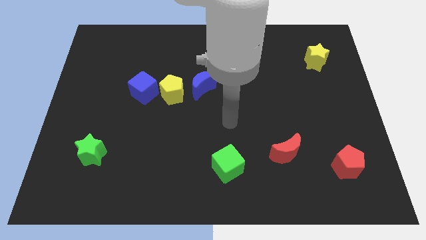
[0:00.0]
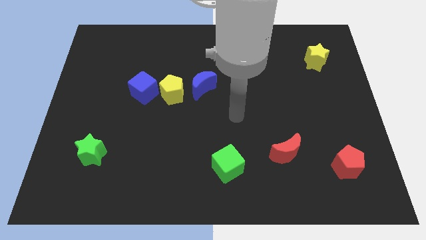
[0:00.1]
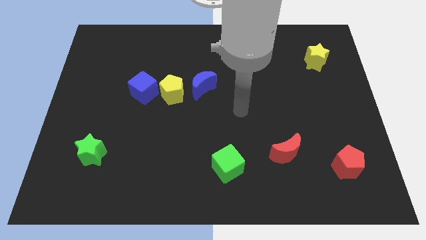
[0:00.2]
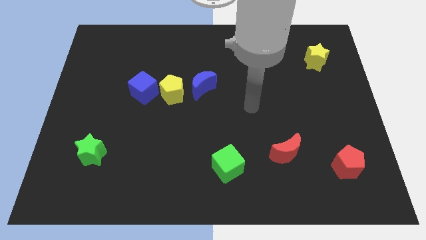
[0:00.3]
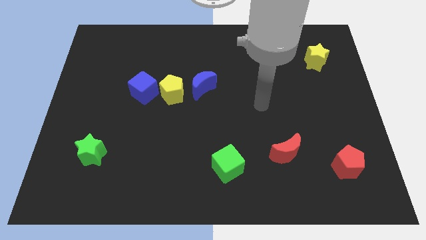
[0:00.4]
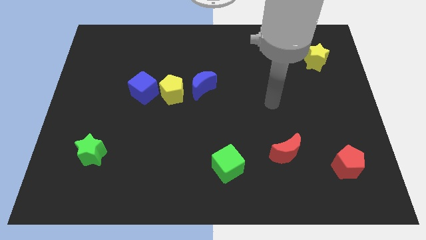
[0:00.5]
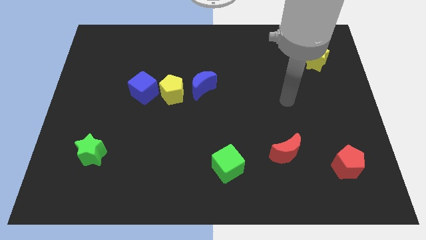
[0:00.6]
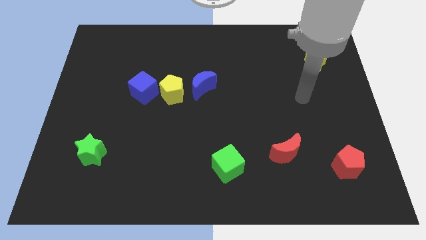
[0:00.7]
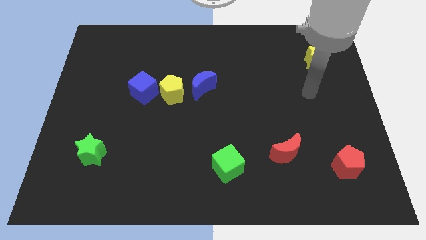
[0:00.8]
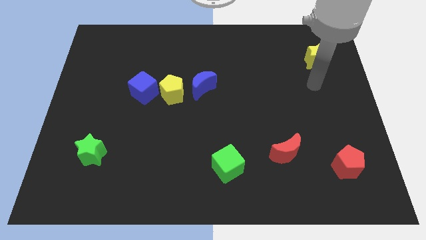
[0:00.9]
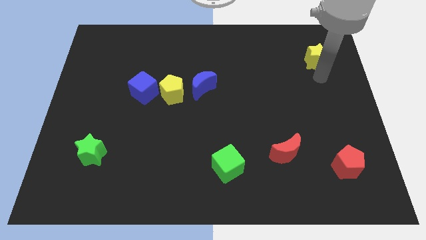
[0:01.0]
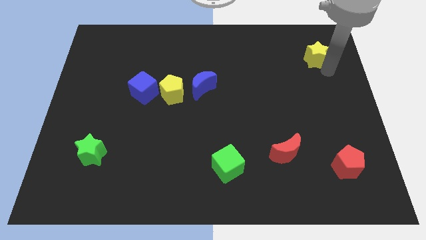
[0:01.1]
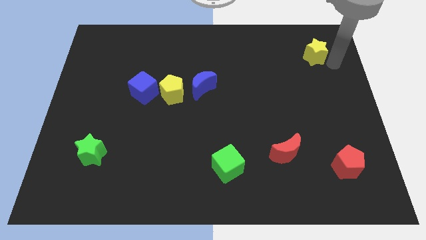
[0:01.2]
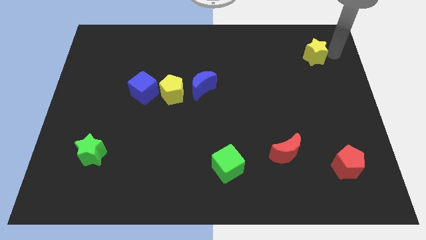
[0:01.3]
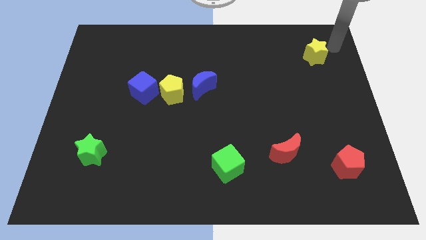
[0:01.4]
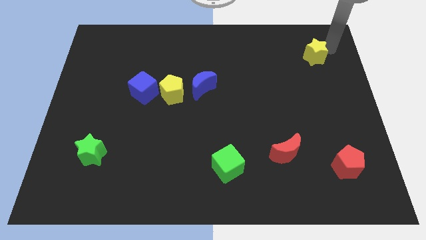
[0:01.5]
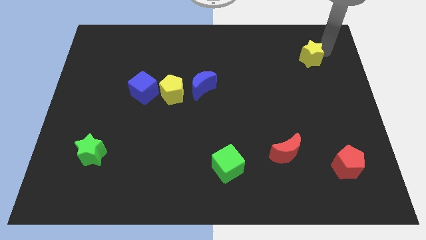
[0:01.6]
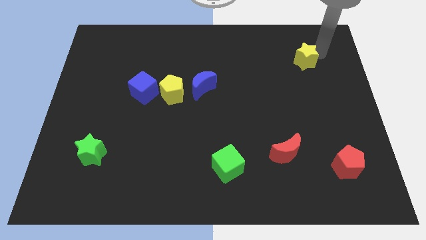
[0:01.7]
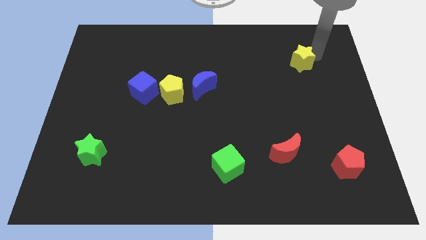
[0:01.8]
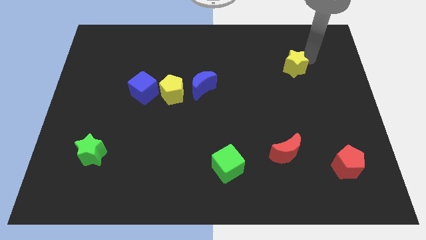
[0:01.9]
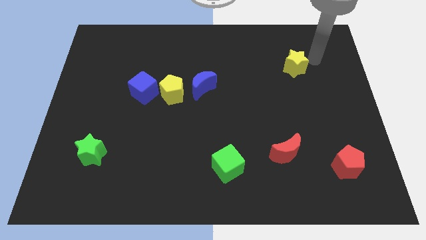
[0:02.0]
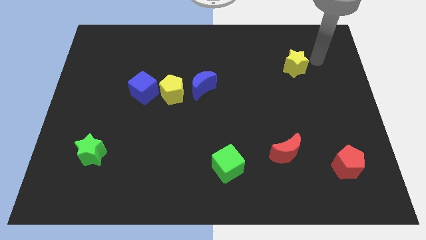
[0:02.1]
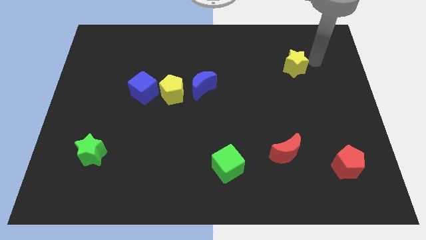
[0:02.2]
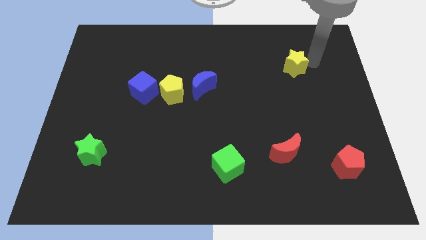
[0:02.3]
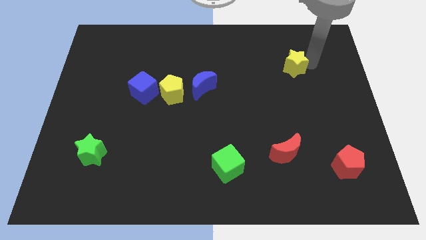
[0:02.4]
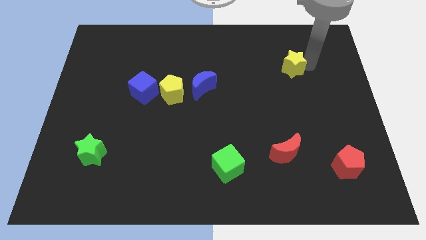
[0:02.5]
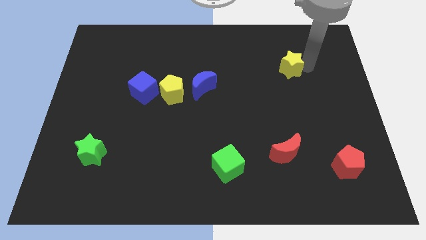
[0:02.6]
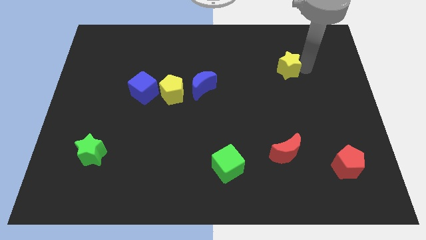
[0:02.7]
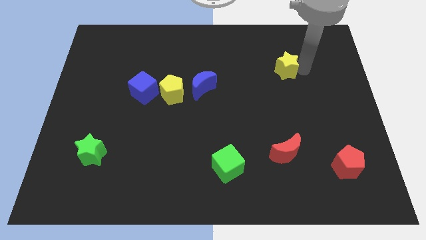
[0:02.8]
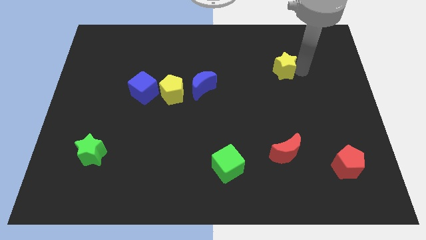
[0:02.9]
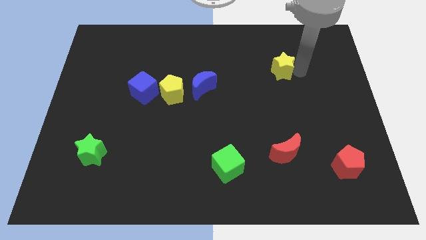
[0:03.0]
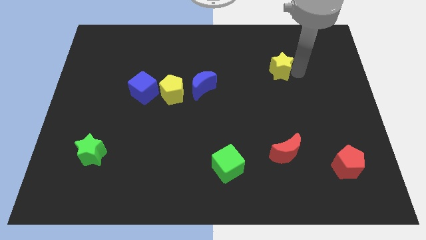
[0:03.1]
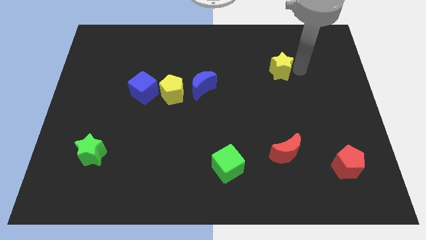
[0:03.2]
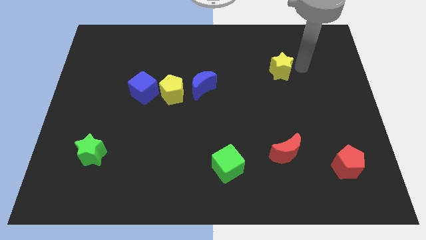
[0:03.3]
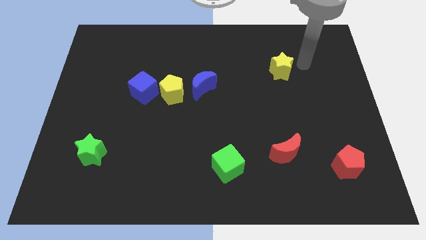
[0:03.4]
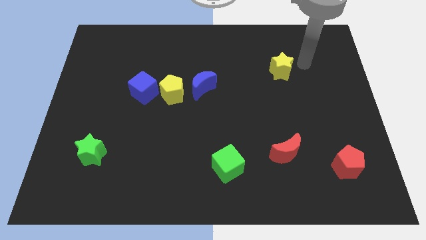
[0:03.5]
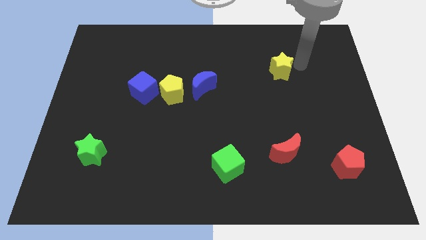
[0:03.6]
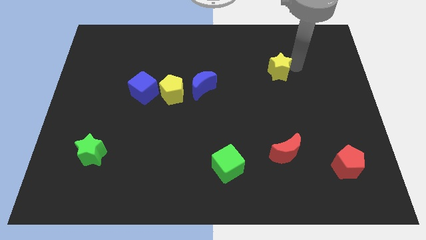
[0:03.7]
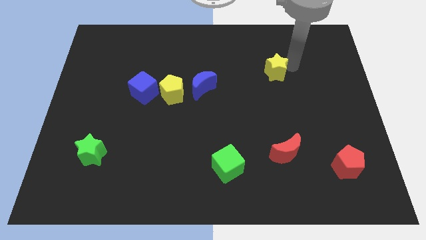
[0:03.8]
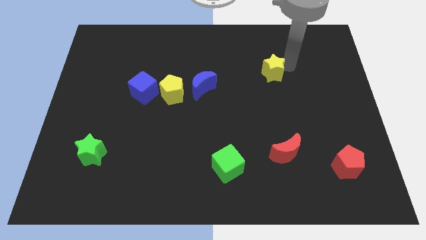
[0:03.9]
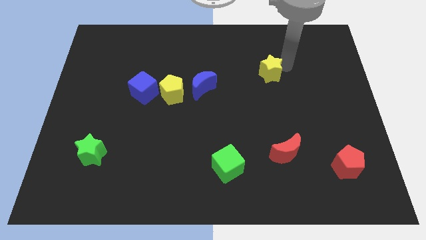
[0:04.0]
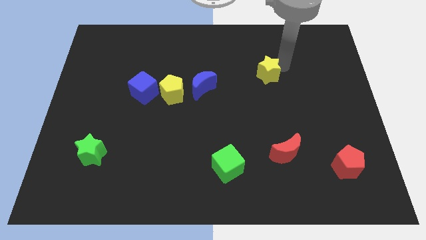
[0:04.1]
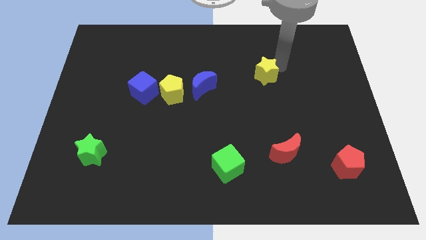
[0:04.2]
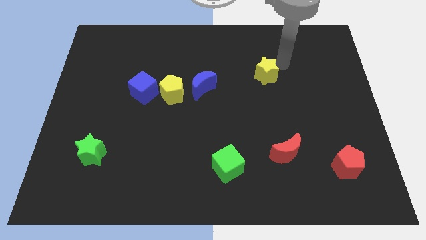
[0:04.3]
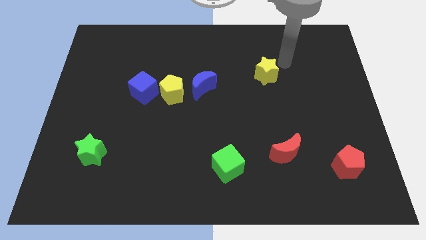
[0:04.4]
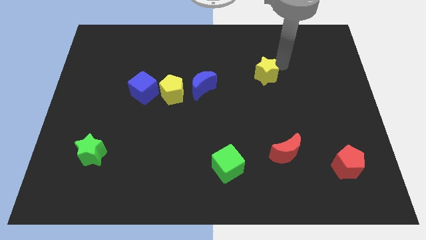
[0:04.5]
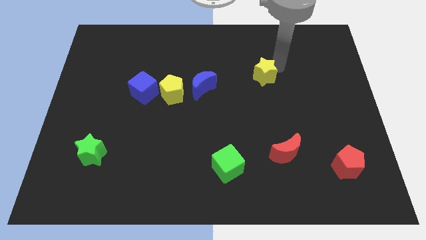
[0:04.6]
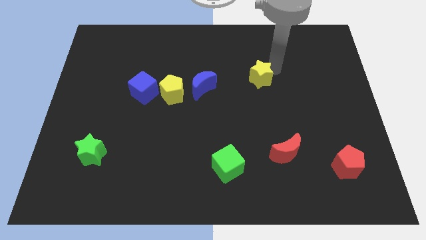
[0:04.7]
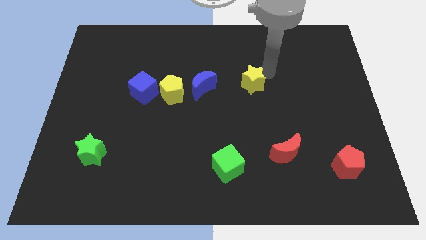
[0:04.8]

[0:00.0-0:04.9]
push the yellow star to the middle of the board

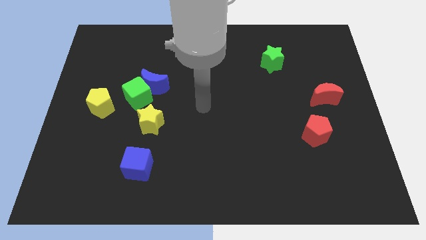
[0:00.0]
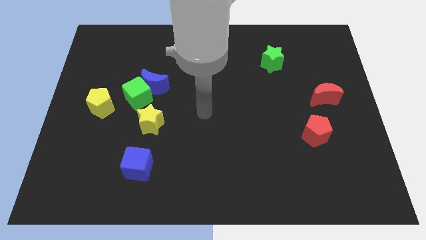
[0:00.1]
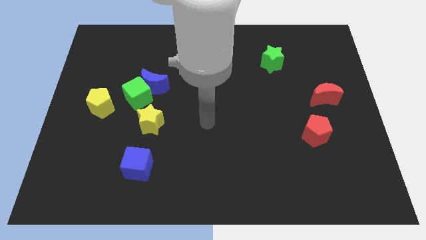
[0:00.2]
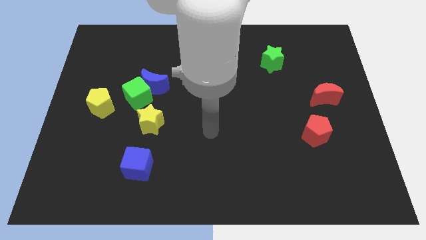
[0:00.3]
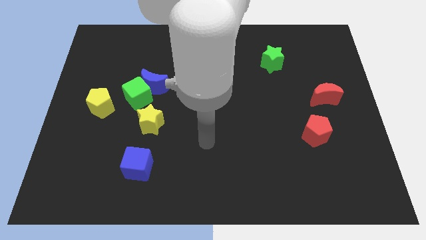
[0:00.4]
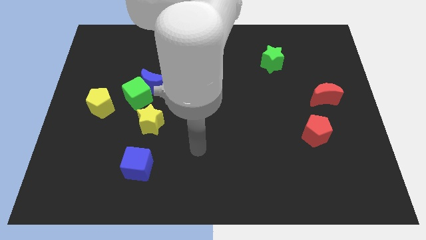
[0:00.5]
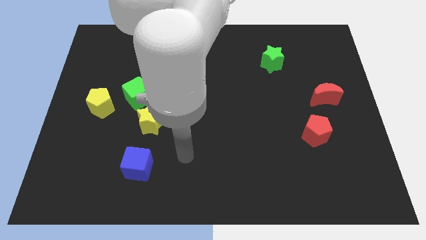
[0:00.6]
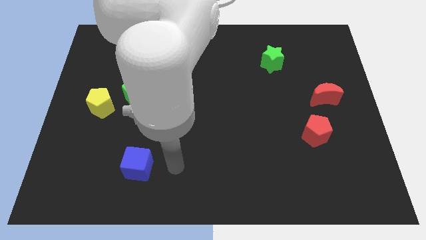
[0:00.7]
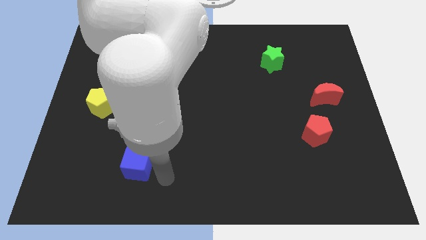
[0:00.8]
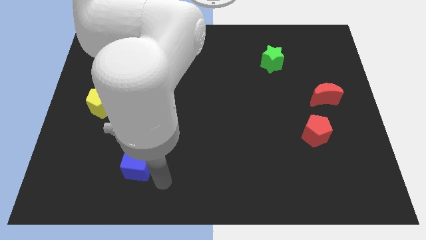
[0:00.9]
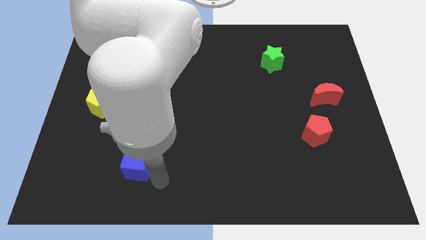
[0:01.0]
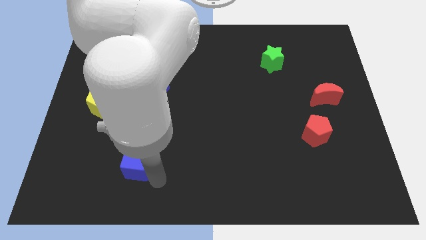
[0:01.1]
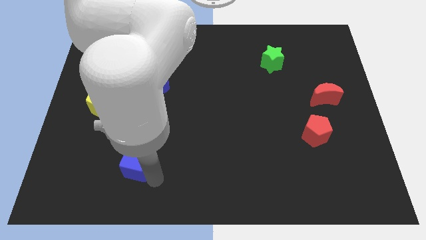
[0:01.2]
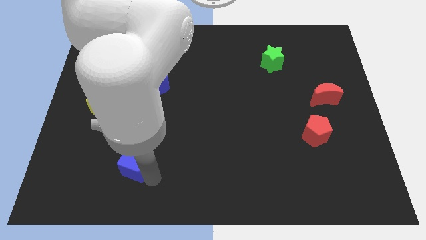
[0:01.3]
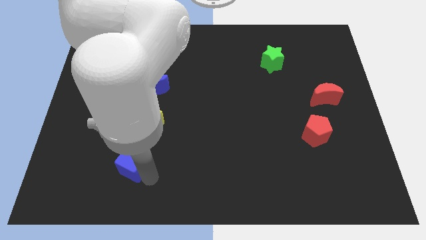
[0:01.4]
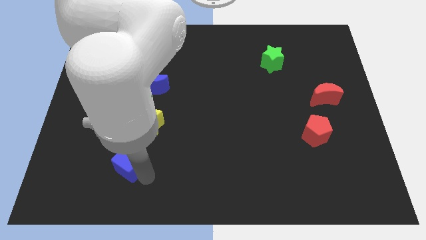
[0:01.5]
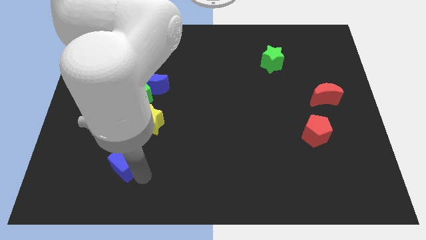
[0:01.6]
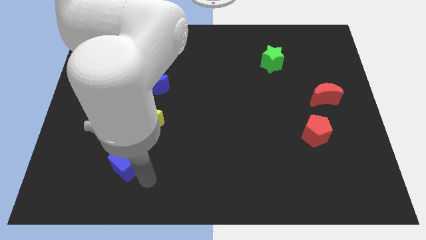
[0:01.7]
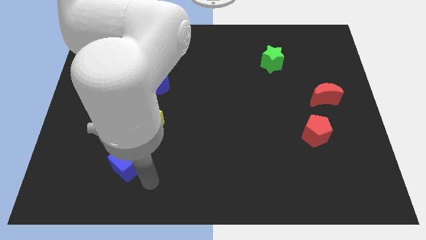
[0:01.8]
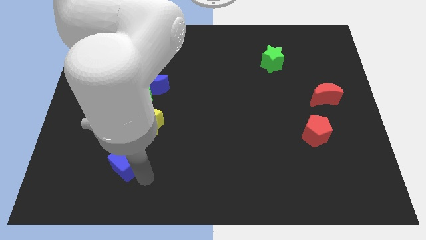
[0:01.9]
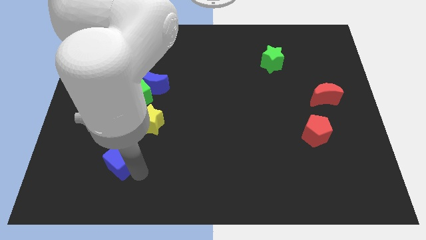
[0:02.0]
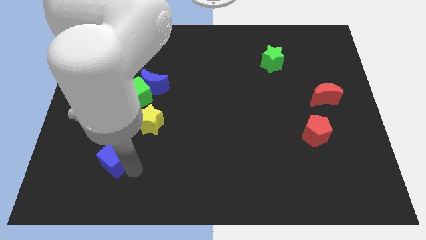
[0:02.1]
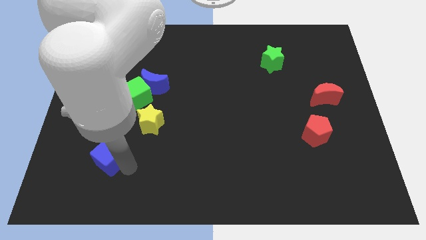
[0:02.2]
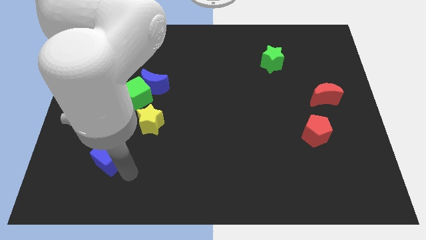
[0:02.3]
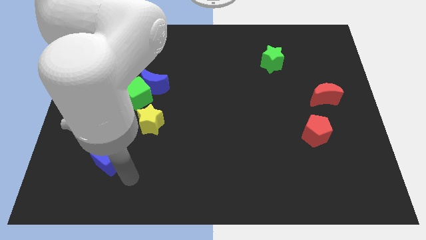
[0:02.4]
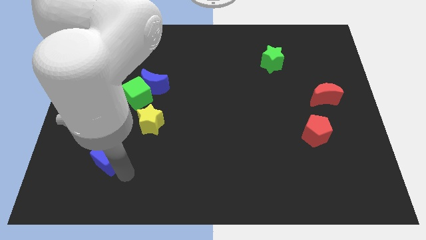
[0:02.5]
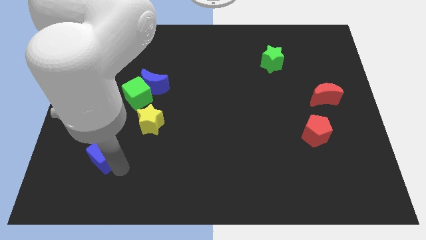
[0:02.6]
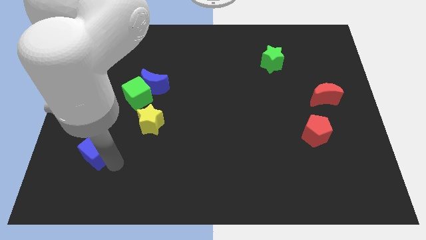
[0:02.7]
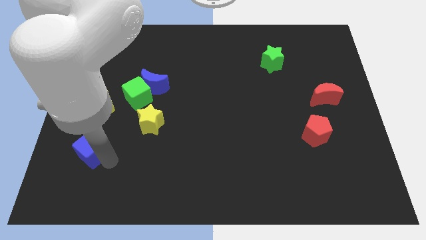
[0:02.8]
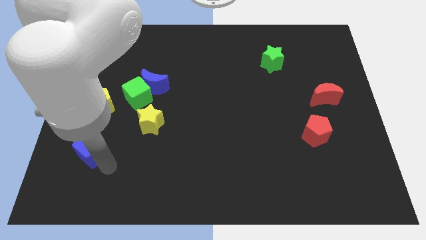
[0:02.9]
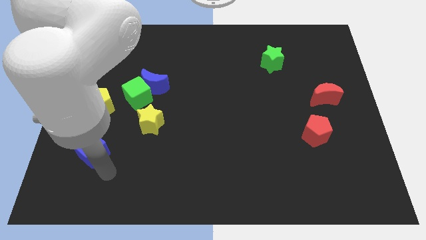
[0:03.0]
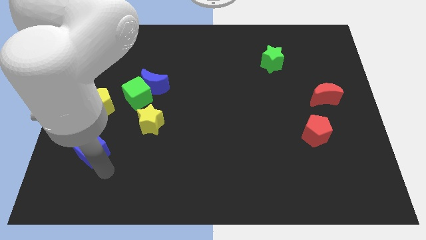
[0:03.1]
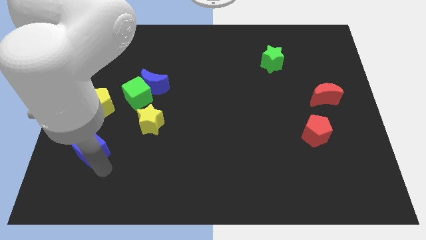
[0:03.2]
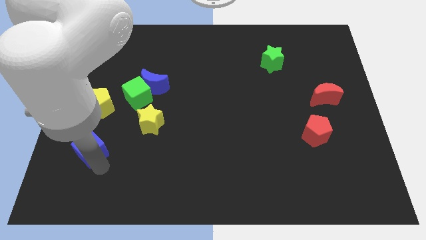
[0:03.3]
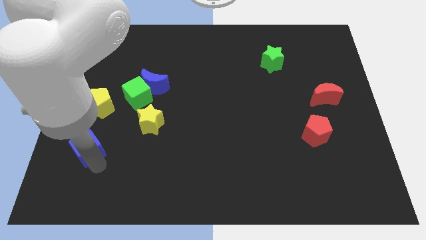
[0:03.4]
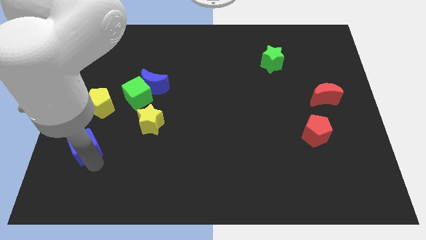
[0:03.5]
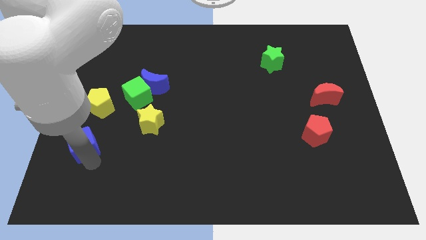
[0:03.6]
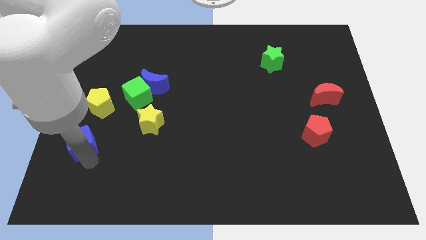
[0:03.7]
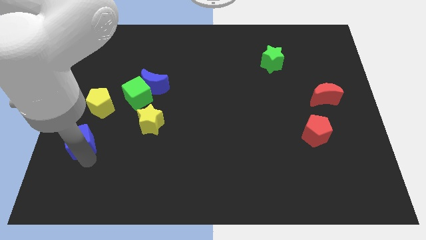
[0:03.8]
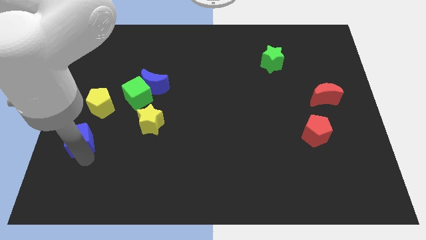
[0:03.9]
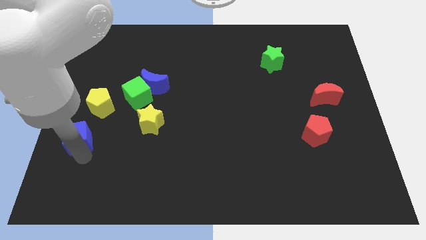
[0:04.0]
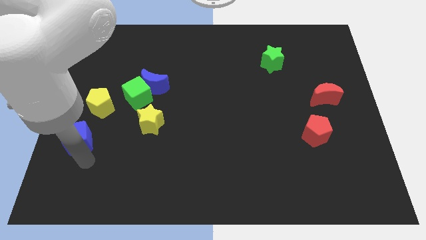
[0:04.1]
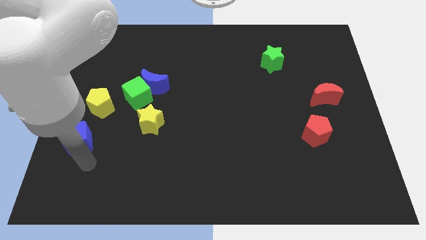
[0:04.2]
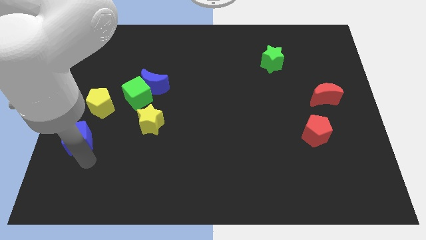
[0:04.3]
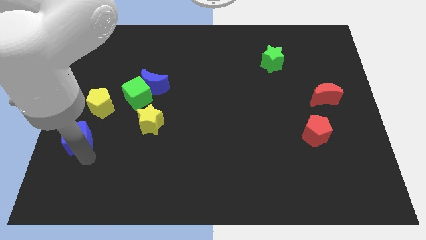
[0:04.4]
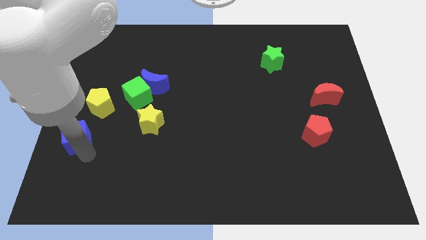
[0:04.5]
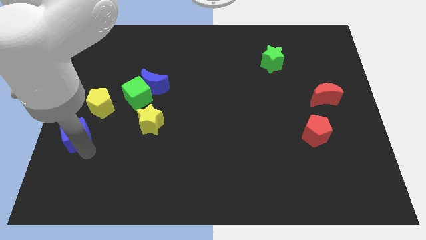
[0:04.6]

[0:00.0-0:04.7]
slide the blue cube to the left side
